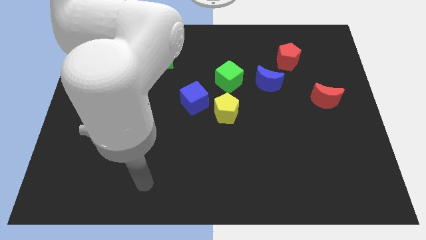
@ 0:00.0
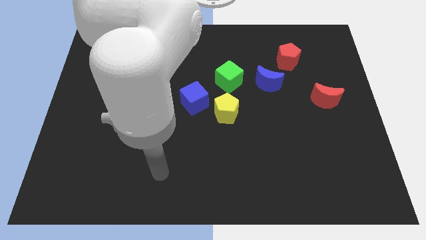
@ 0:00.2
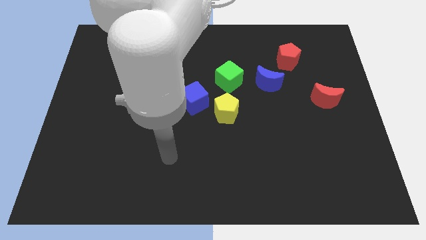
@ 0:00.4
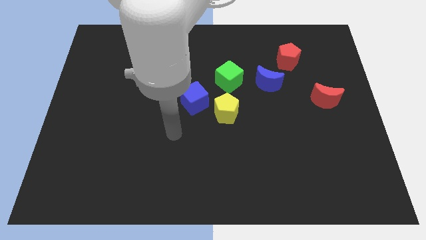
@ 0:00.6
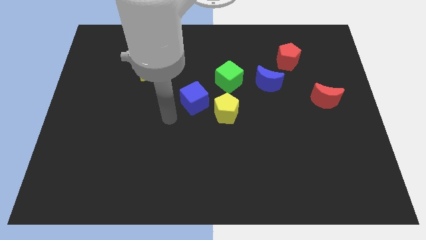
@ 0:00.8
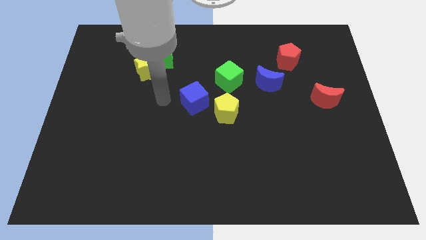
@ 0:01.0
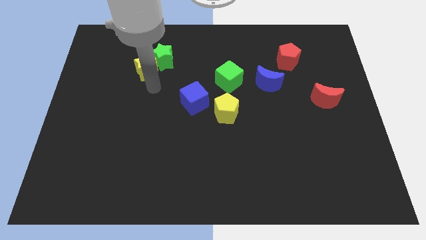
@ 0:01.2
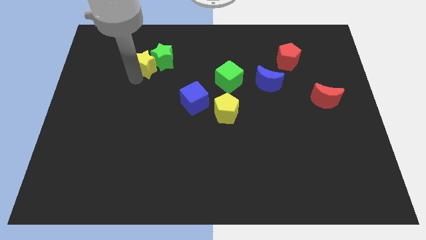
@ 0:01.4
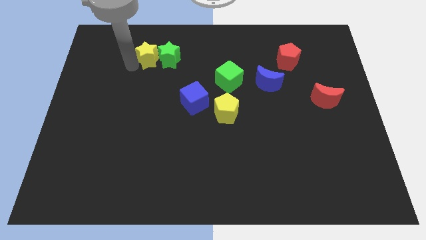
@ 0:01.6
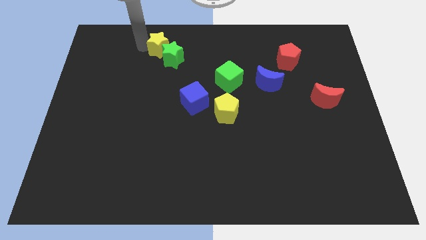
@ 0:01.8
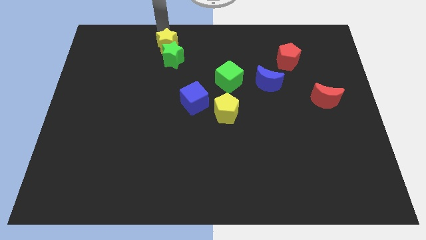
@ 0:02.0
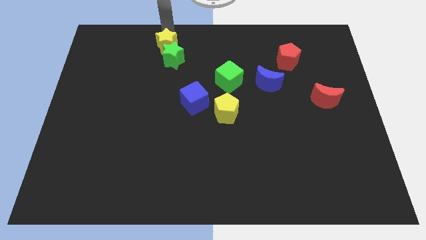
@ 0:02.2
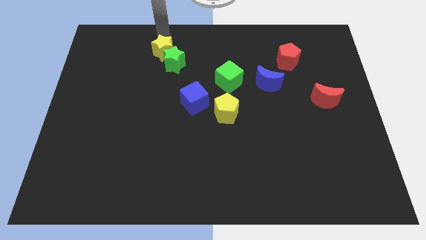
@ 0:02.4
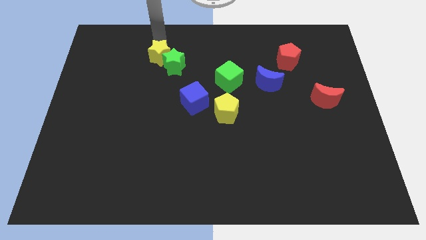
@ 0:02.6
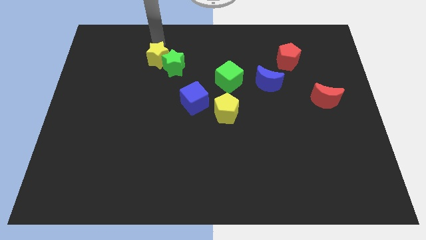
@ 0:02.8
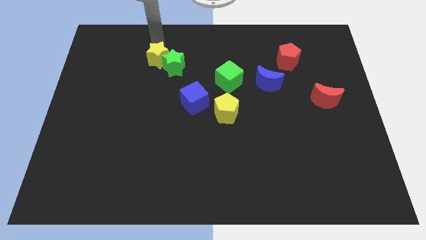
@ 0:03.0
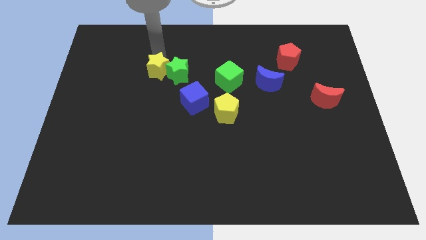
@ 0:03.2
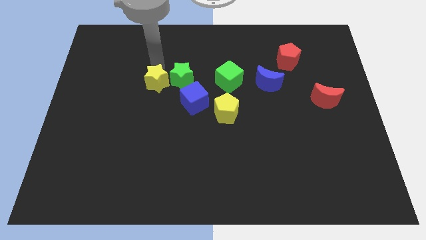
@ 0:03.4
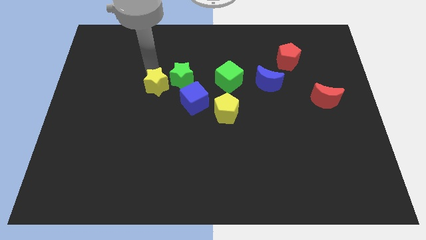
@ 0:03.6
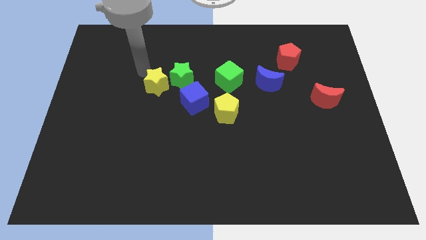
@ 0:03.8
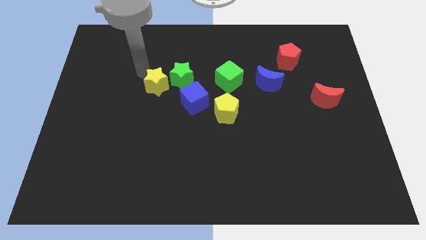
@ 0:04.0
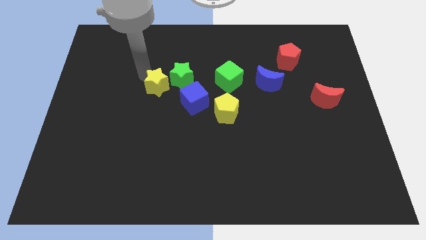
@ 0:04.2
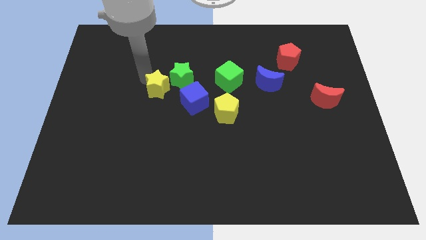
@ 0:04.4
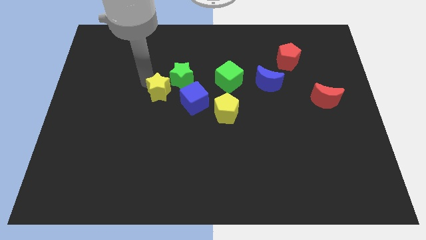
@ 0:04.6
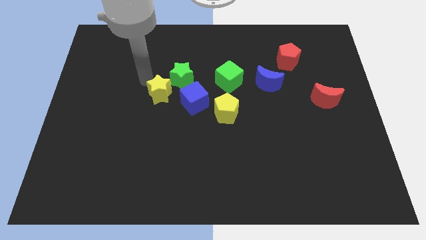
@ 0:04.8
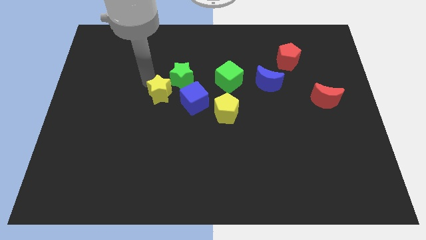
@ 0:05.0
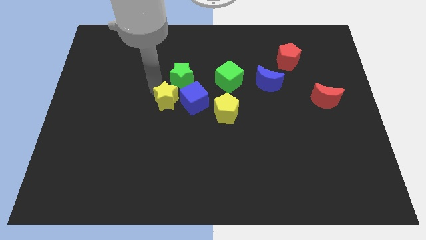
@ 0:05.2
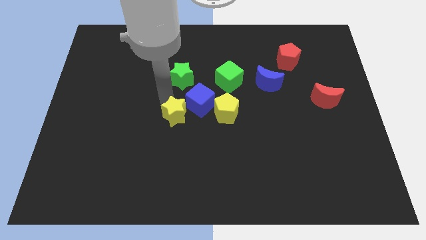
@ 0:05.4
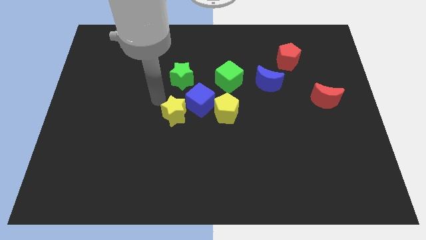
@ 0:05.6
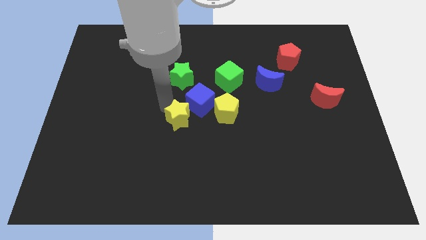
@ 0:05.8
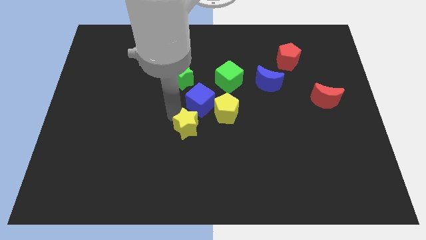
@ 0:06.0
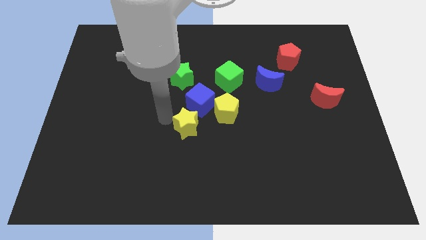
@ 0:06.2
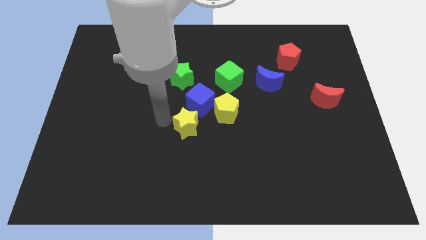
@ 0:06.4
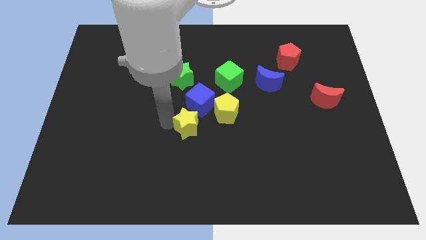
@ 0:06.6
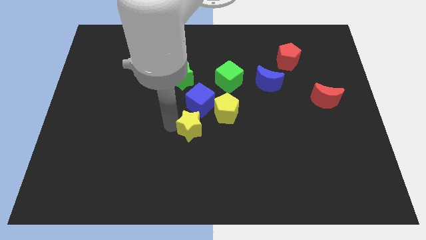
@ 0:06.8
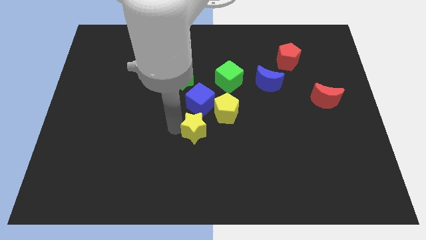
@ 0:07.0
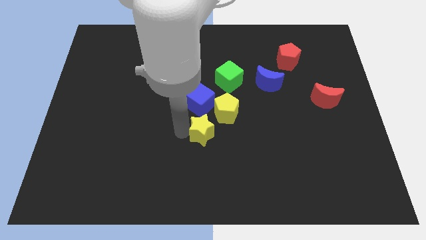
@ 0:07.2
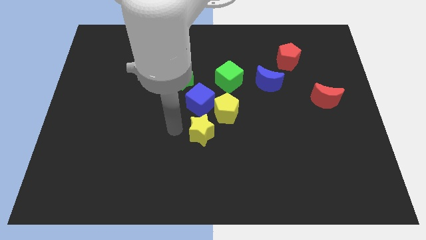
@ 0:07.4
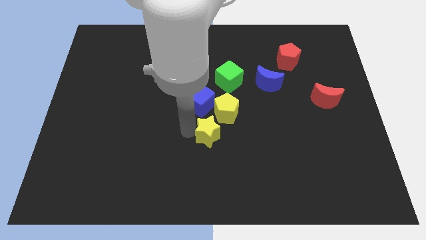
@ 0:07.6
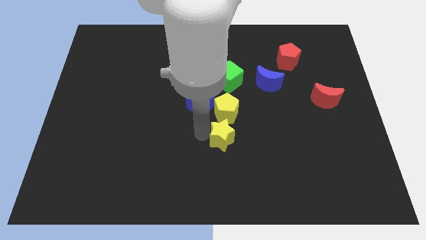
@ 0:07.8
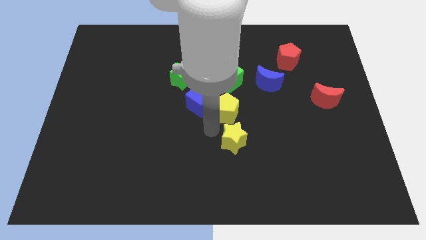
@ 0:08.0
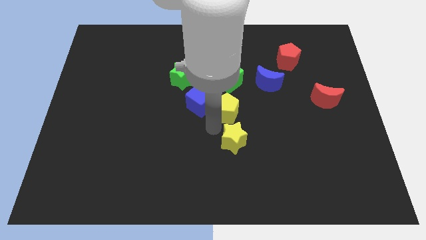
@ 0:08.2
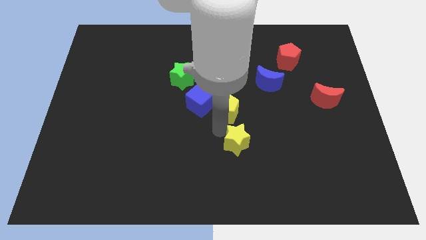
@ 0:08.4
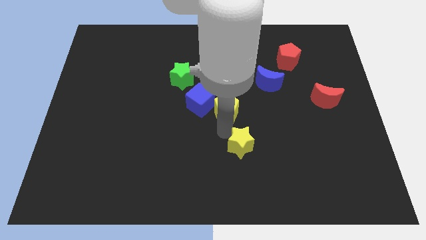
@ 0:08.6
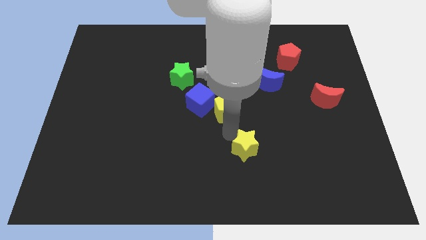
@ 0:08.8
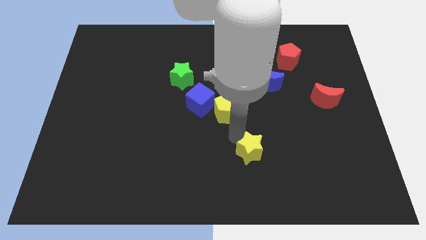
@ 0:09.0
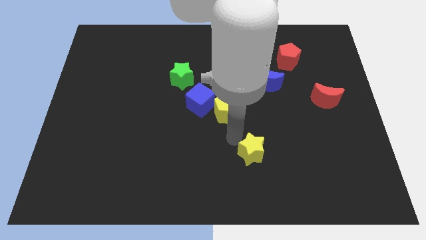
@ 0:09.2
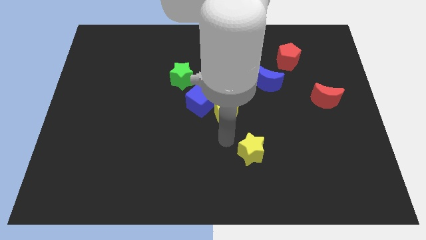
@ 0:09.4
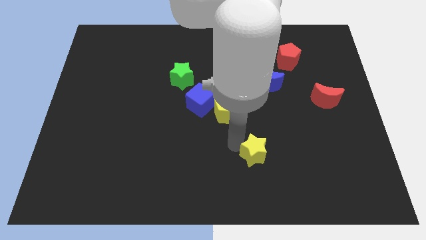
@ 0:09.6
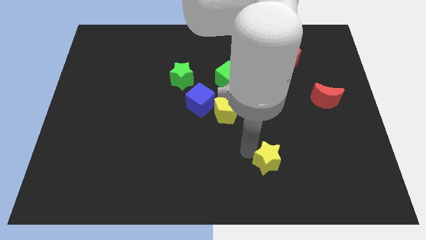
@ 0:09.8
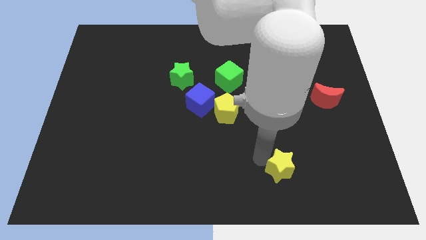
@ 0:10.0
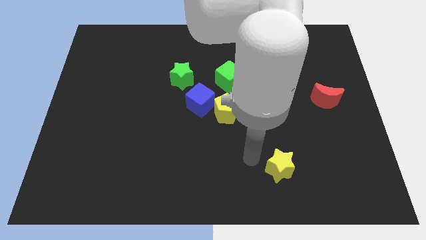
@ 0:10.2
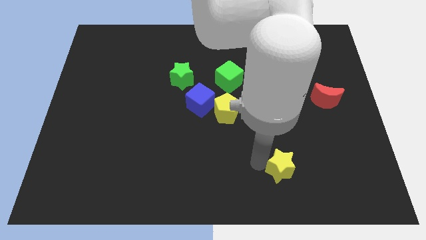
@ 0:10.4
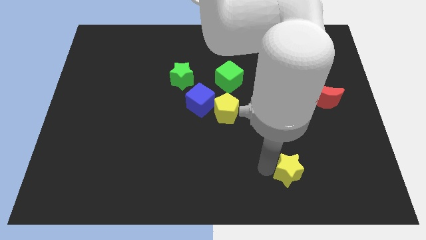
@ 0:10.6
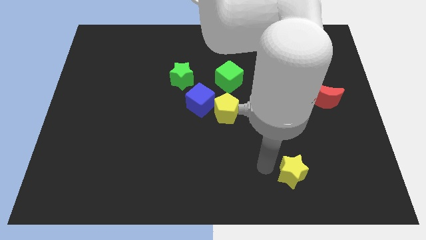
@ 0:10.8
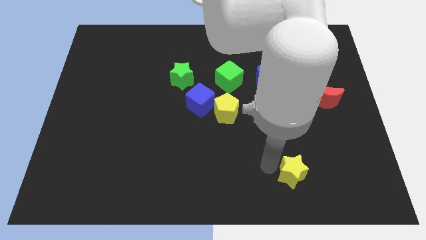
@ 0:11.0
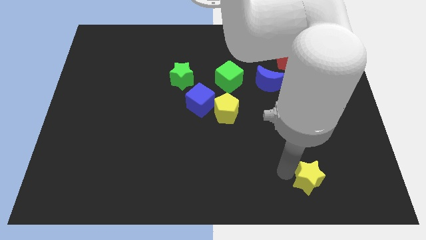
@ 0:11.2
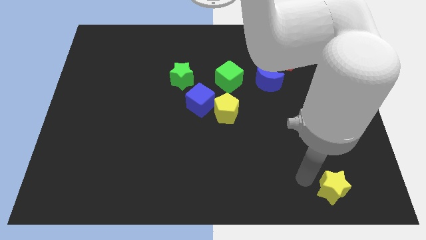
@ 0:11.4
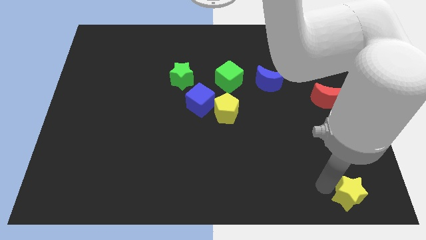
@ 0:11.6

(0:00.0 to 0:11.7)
push the yellow star to the bottom right

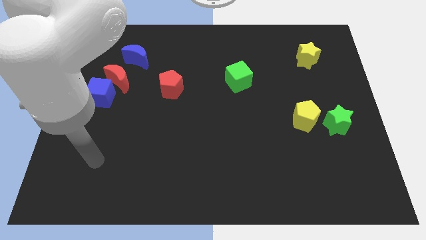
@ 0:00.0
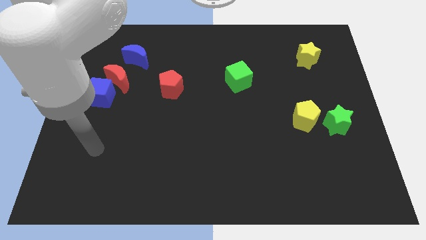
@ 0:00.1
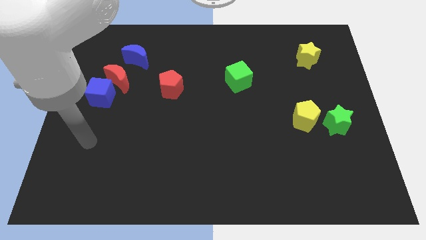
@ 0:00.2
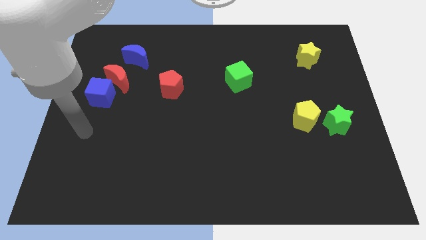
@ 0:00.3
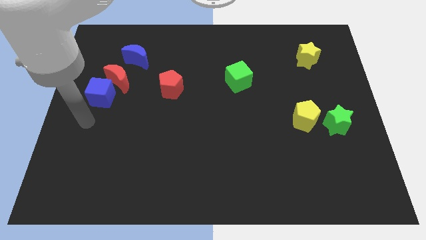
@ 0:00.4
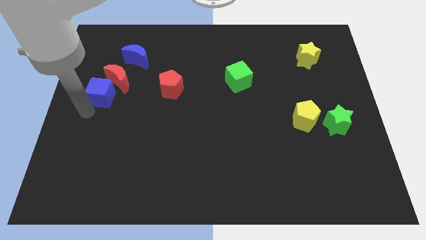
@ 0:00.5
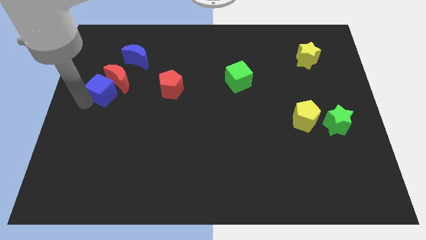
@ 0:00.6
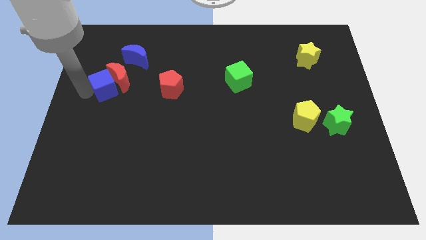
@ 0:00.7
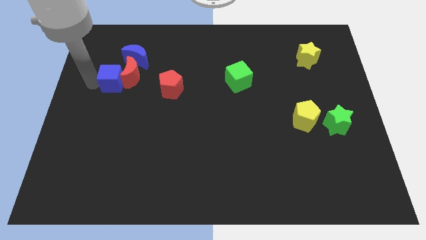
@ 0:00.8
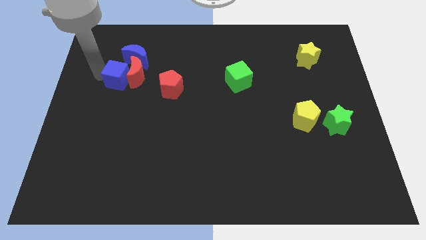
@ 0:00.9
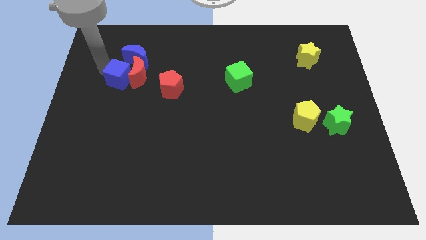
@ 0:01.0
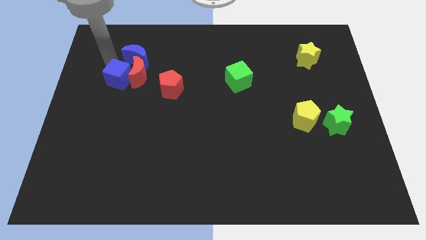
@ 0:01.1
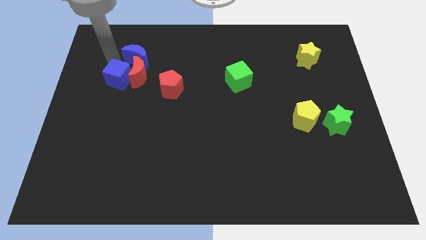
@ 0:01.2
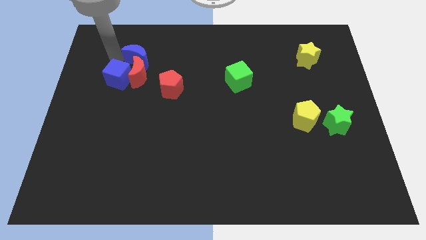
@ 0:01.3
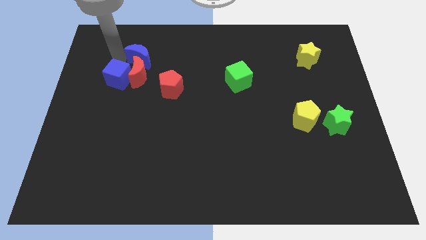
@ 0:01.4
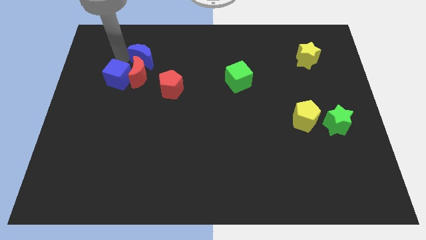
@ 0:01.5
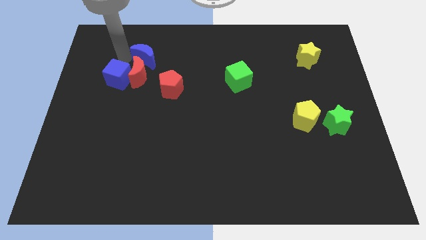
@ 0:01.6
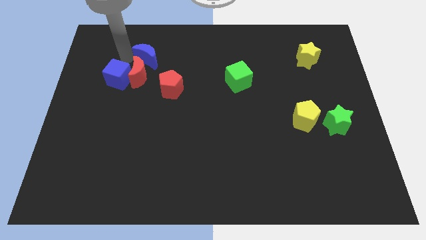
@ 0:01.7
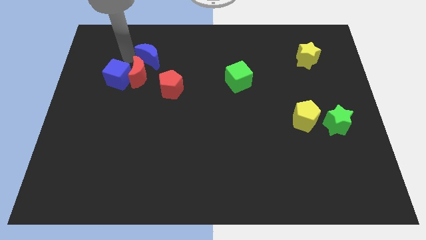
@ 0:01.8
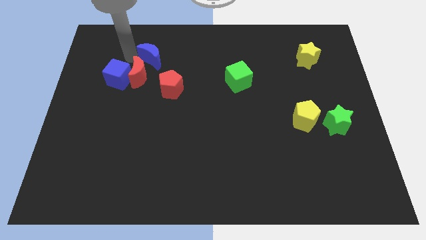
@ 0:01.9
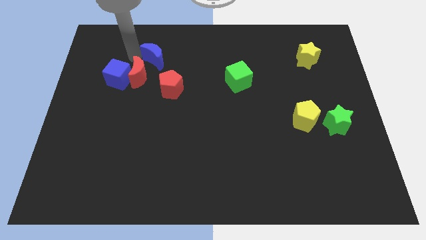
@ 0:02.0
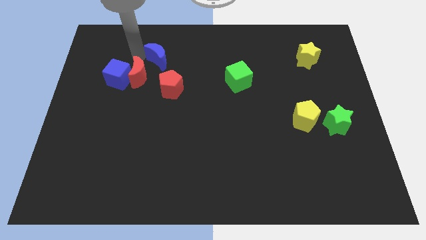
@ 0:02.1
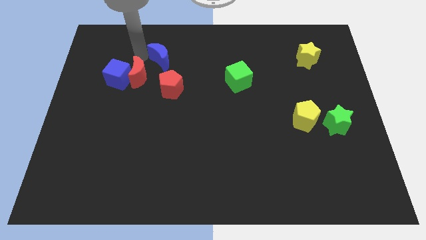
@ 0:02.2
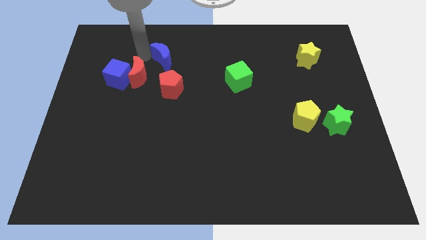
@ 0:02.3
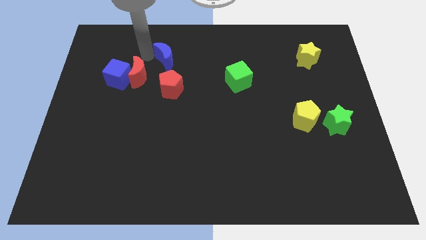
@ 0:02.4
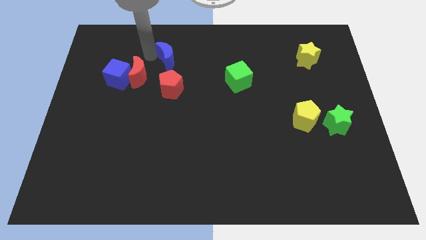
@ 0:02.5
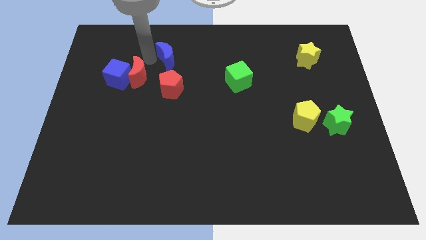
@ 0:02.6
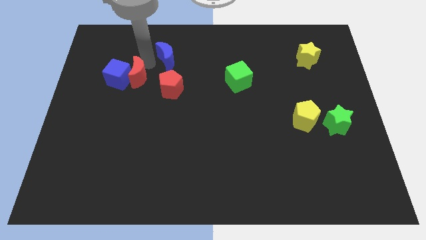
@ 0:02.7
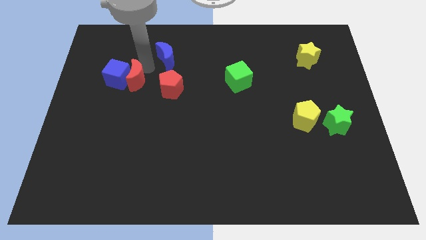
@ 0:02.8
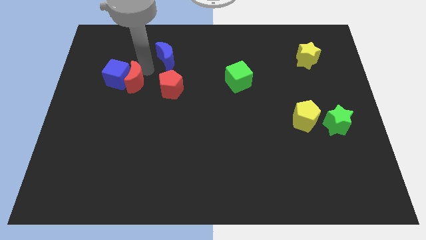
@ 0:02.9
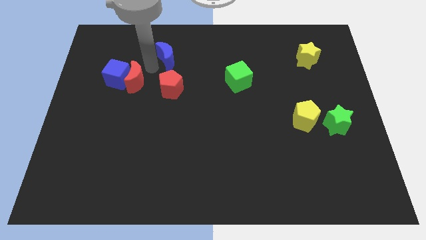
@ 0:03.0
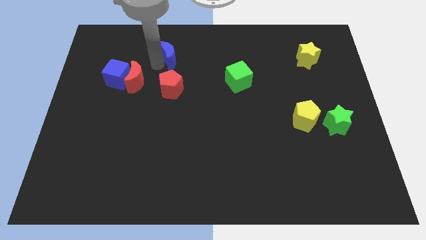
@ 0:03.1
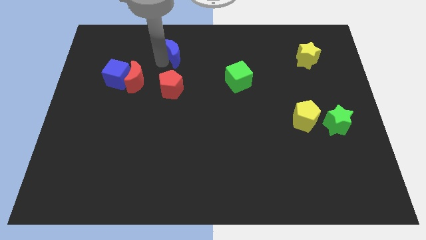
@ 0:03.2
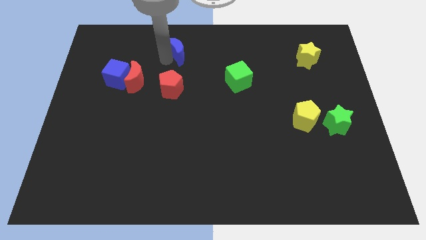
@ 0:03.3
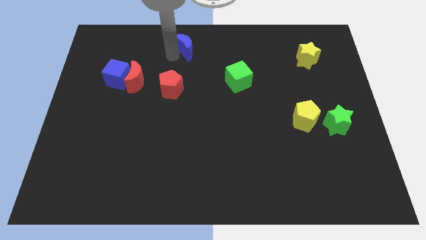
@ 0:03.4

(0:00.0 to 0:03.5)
push the blue moon to the towards your base
